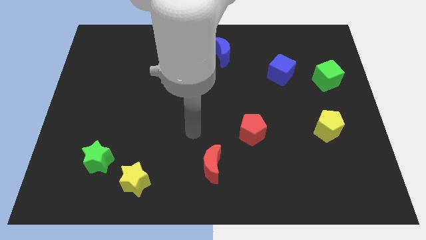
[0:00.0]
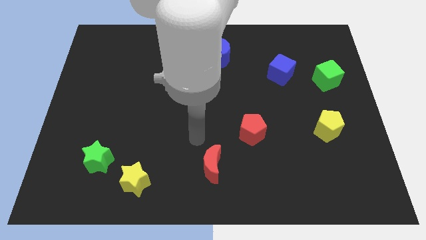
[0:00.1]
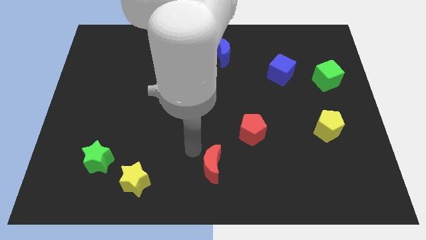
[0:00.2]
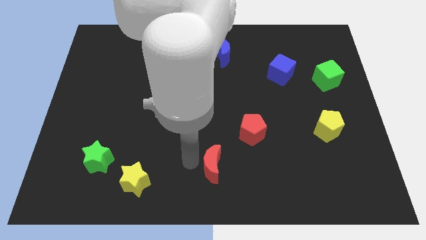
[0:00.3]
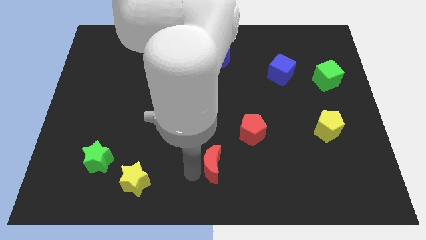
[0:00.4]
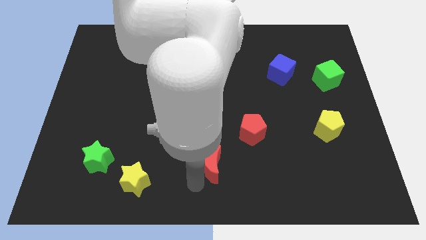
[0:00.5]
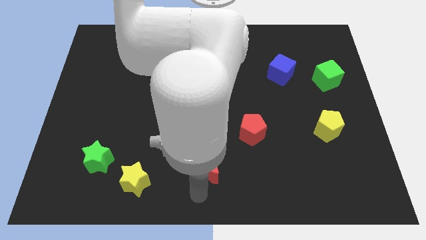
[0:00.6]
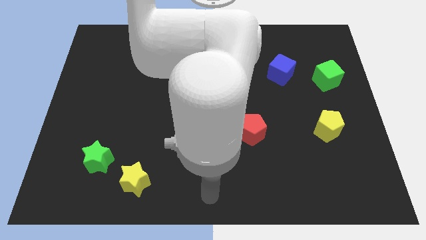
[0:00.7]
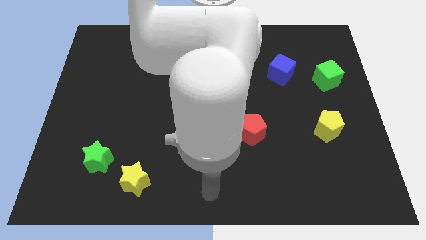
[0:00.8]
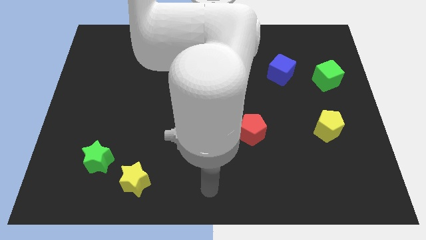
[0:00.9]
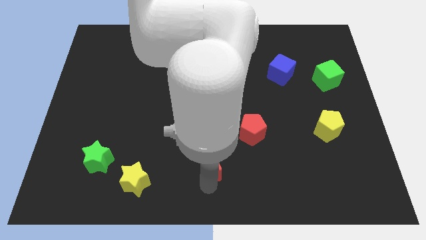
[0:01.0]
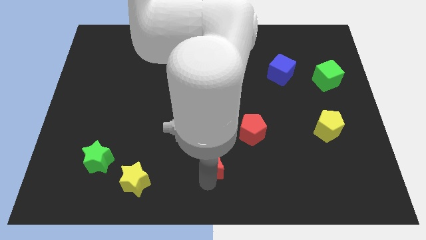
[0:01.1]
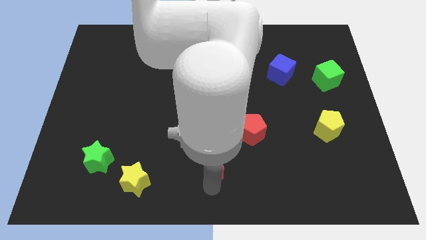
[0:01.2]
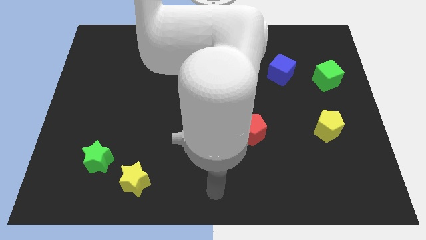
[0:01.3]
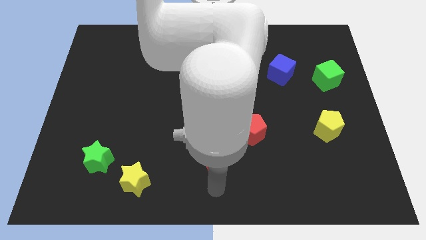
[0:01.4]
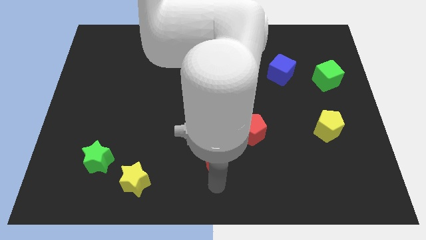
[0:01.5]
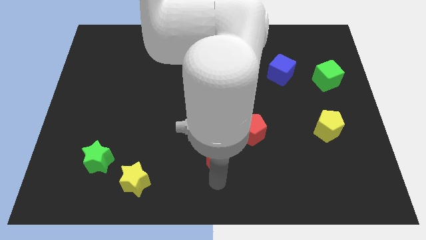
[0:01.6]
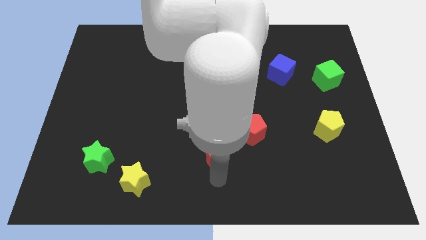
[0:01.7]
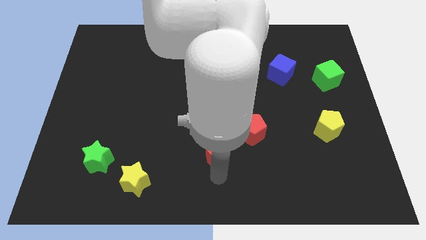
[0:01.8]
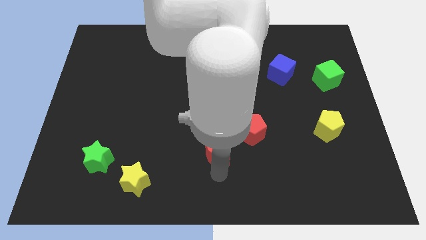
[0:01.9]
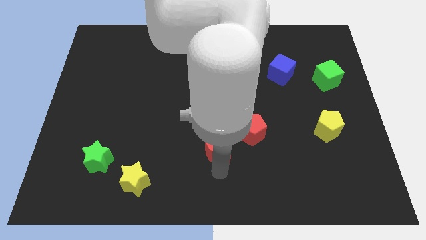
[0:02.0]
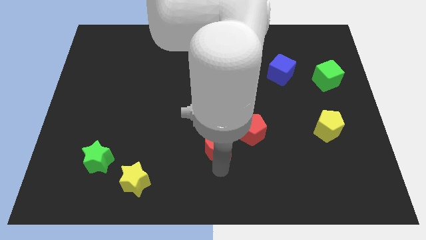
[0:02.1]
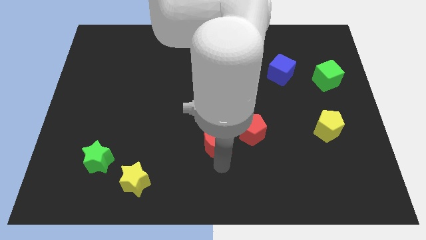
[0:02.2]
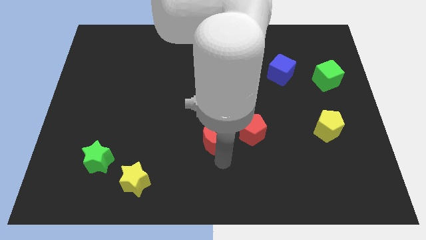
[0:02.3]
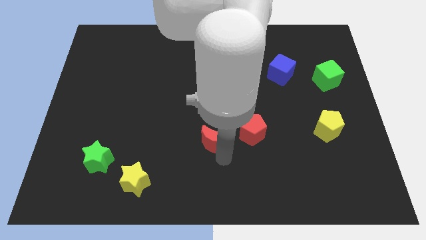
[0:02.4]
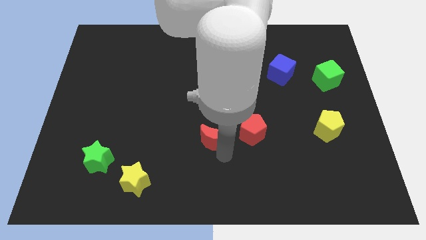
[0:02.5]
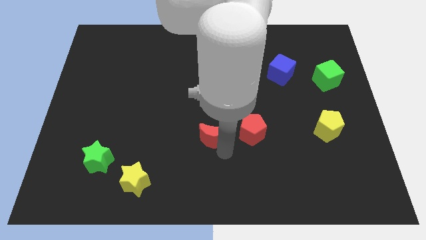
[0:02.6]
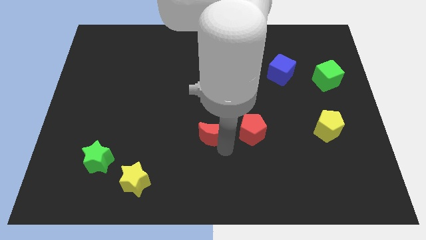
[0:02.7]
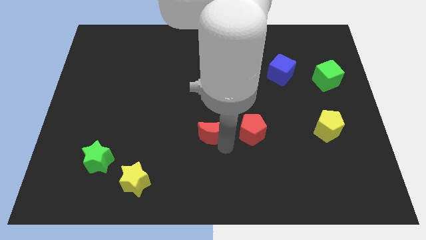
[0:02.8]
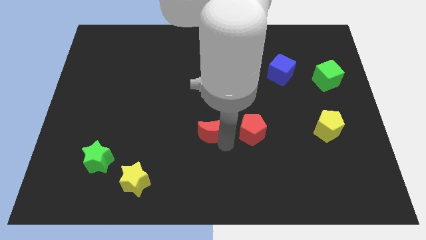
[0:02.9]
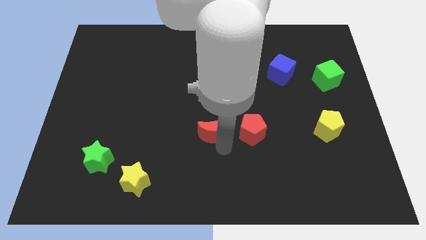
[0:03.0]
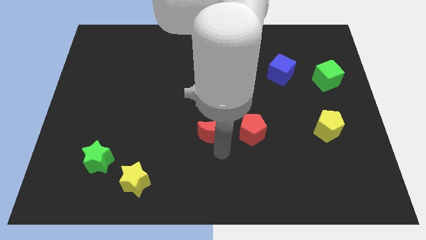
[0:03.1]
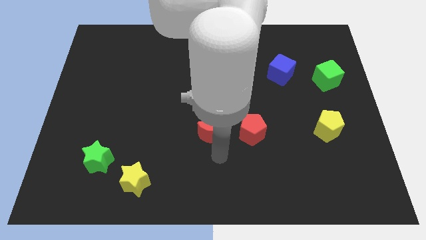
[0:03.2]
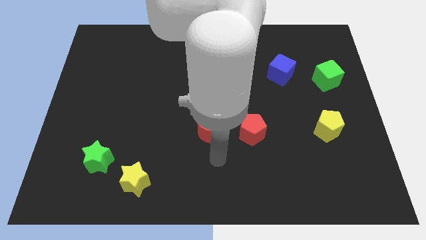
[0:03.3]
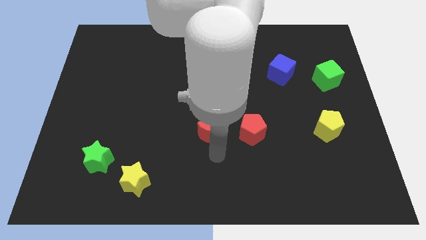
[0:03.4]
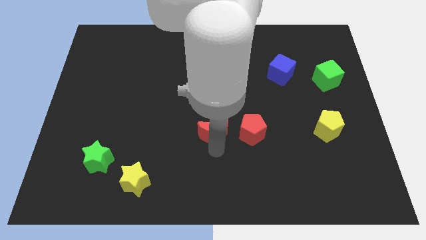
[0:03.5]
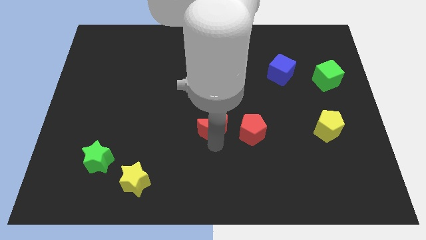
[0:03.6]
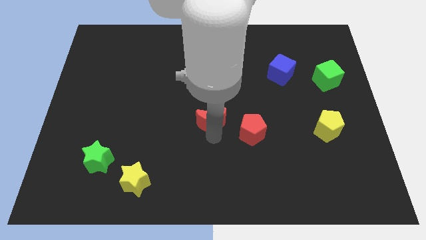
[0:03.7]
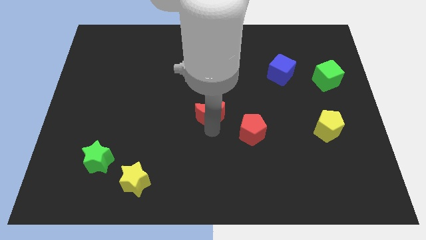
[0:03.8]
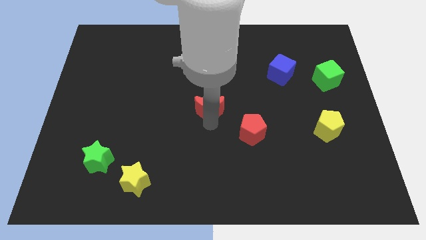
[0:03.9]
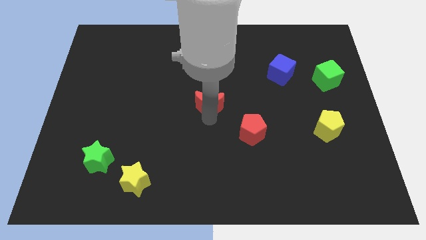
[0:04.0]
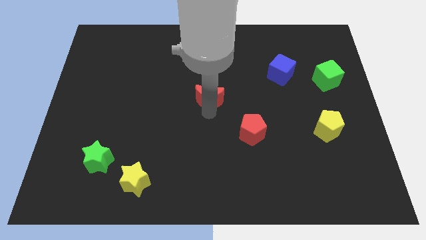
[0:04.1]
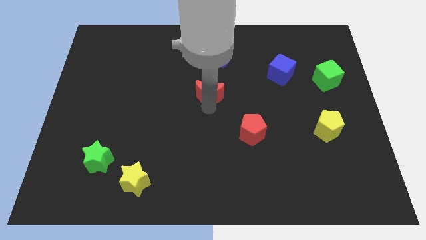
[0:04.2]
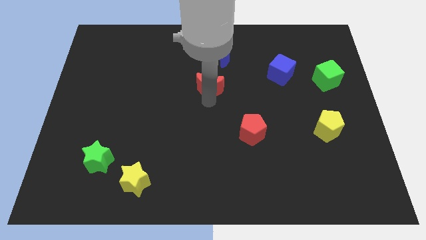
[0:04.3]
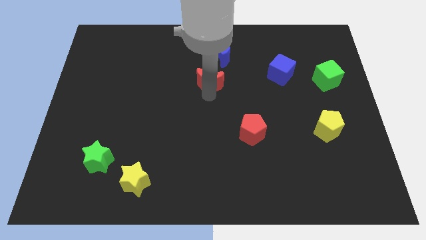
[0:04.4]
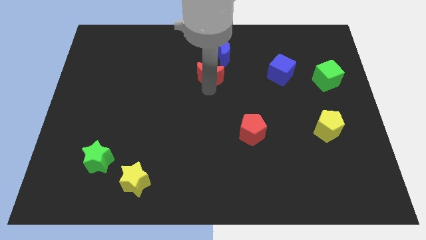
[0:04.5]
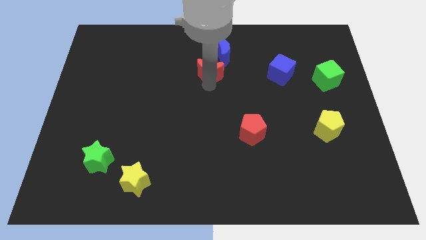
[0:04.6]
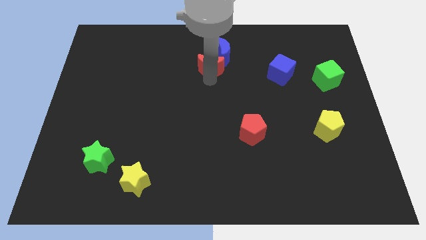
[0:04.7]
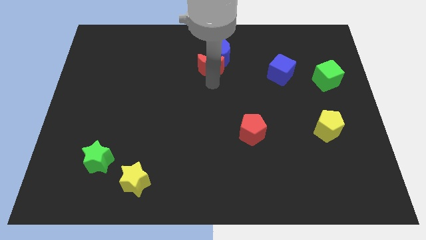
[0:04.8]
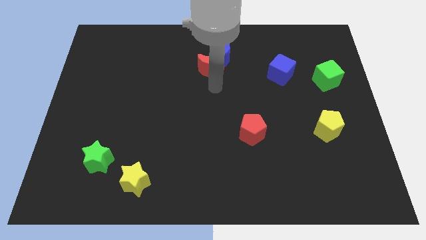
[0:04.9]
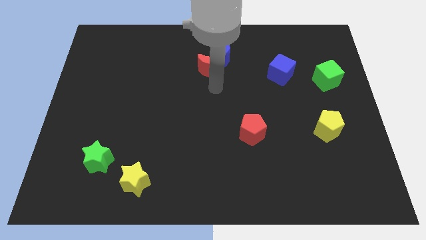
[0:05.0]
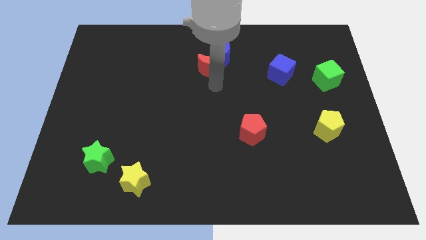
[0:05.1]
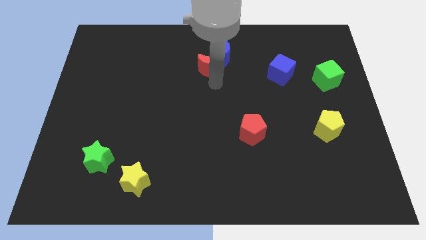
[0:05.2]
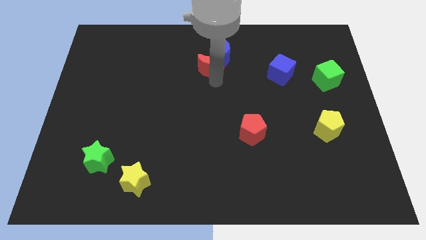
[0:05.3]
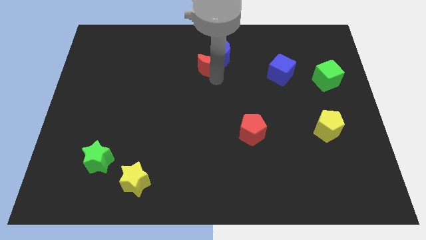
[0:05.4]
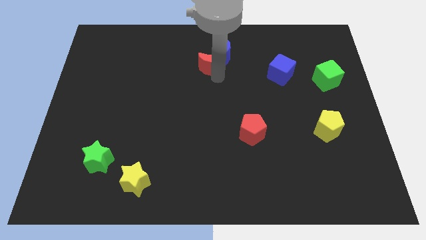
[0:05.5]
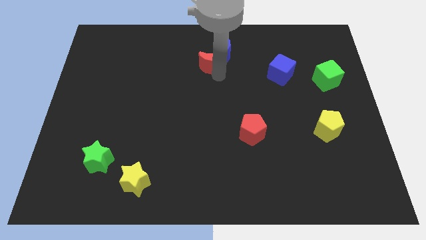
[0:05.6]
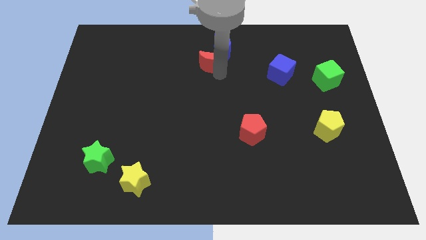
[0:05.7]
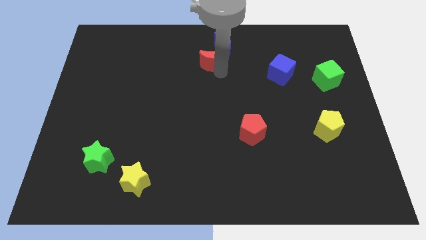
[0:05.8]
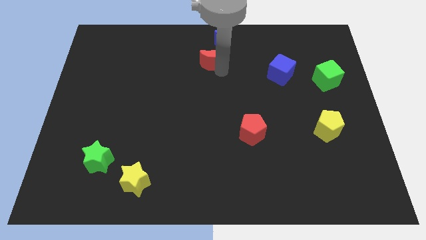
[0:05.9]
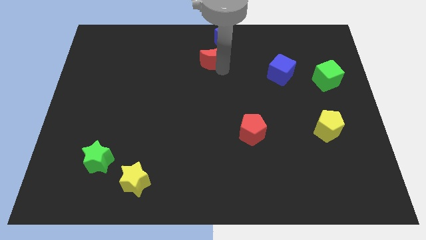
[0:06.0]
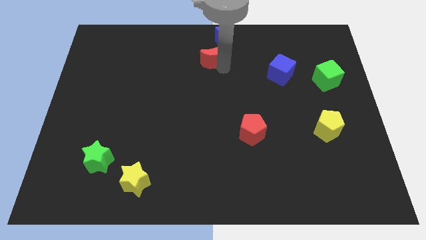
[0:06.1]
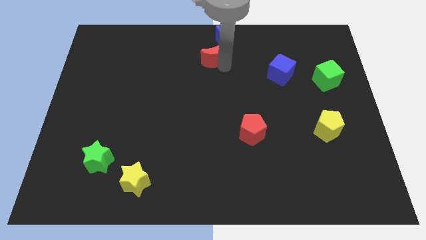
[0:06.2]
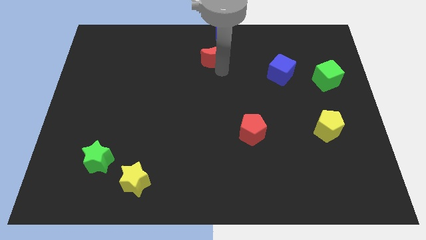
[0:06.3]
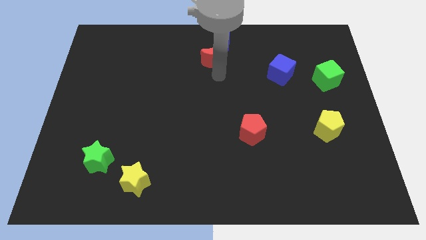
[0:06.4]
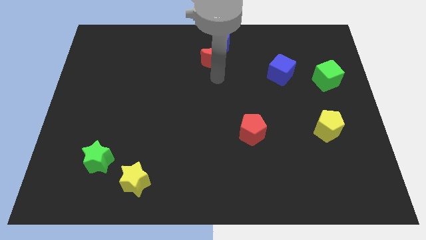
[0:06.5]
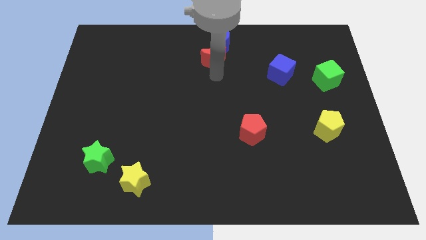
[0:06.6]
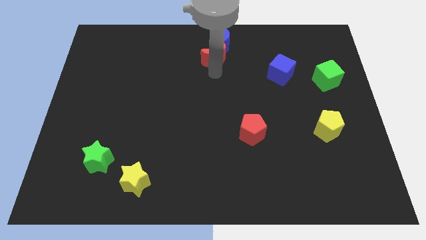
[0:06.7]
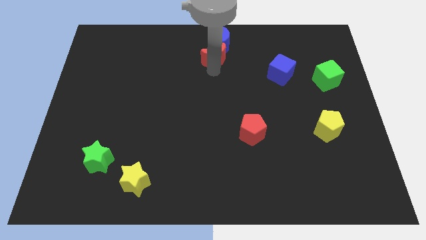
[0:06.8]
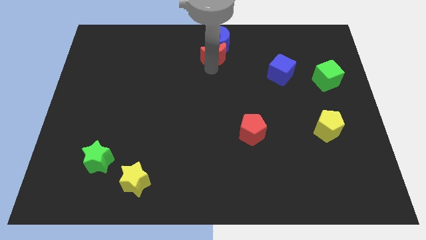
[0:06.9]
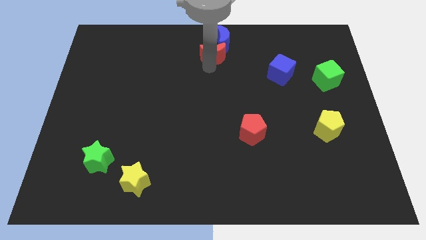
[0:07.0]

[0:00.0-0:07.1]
push the red moon to the top side

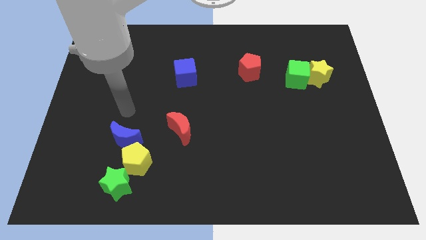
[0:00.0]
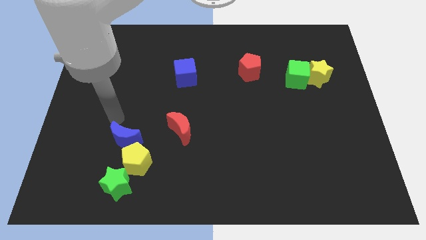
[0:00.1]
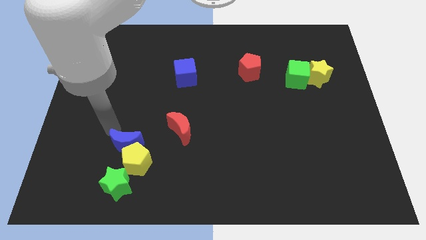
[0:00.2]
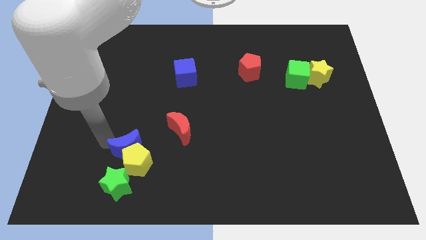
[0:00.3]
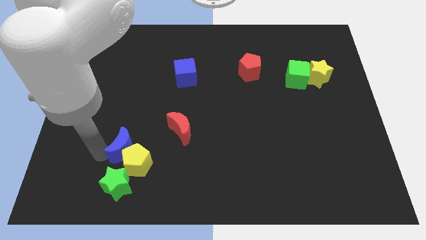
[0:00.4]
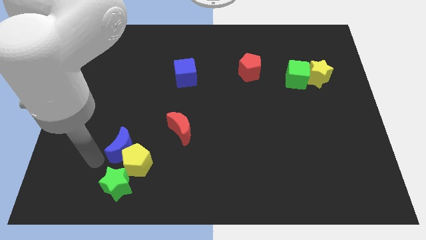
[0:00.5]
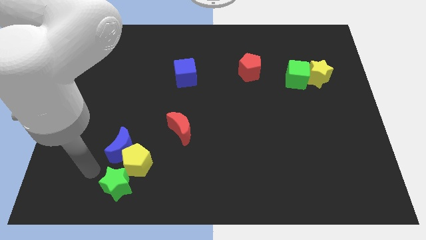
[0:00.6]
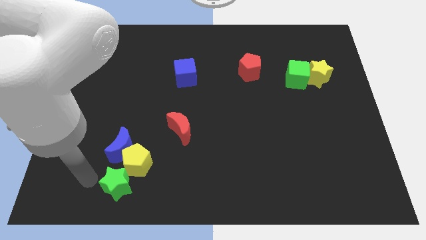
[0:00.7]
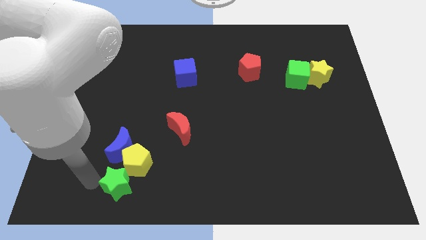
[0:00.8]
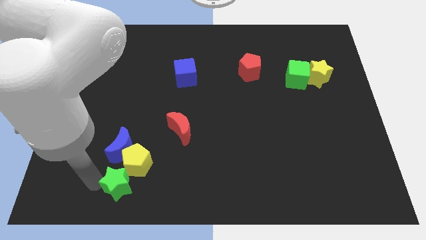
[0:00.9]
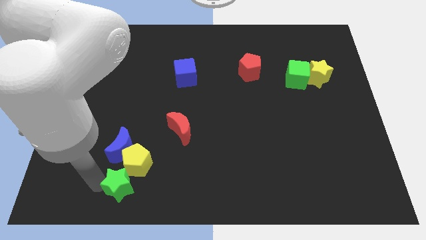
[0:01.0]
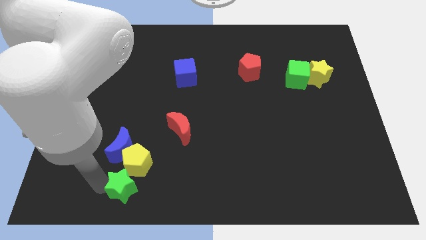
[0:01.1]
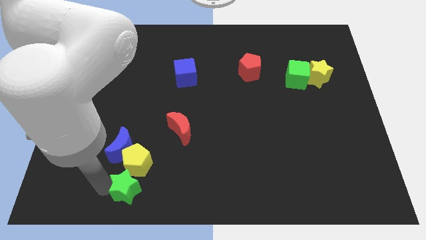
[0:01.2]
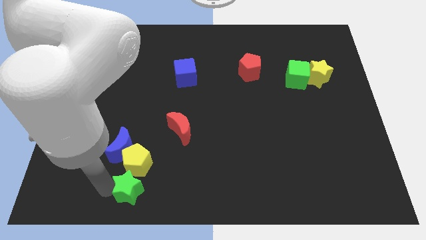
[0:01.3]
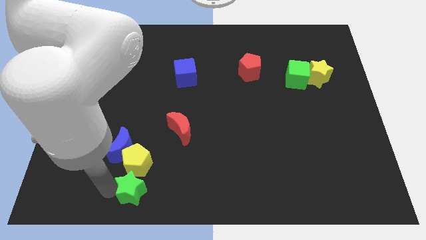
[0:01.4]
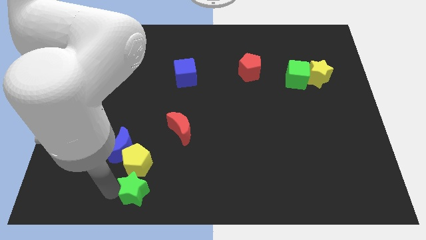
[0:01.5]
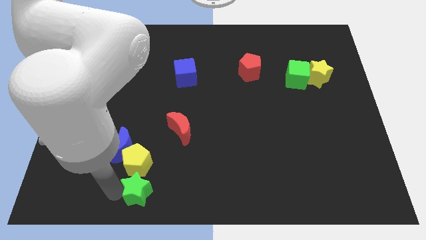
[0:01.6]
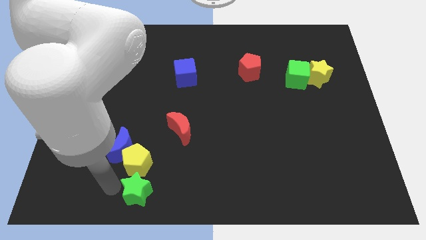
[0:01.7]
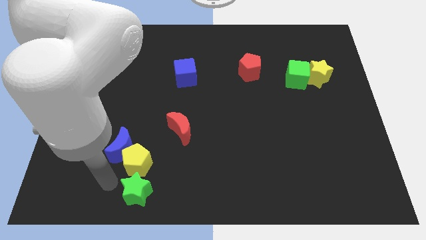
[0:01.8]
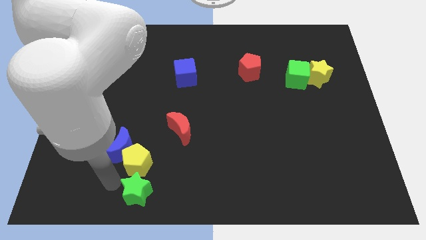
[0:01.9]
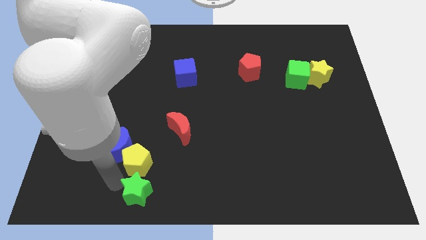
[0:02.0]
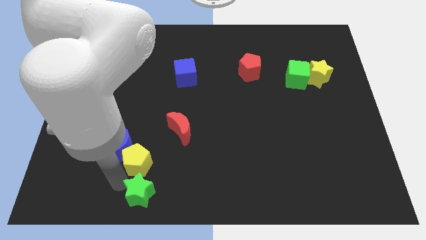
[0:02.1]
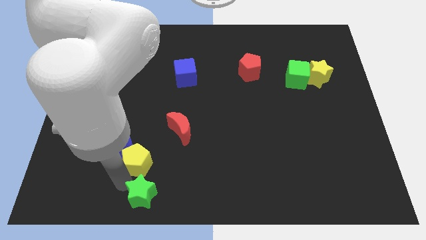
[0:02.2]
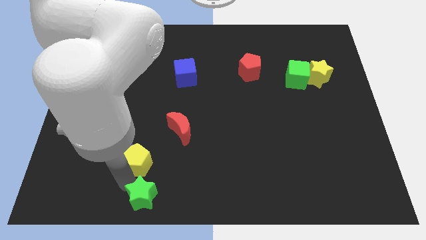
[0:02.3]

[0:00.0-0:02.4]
slide the green star to the bottom
